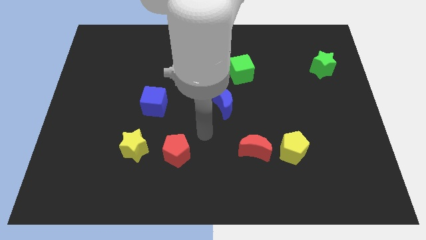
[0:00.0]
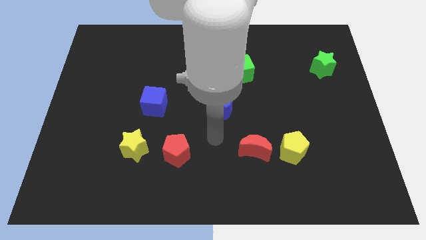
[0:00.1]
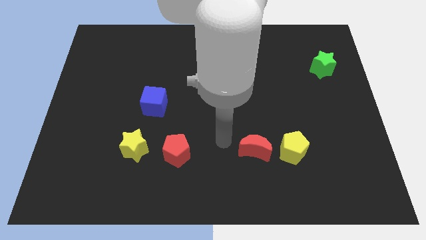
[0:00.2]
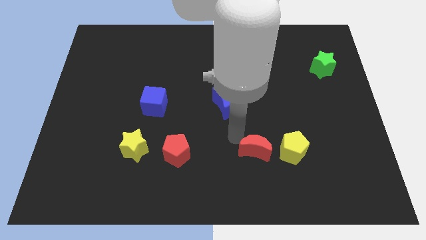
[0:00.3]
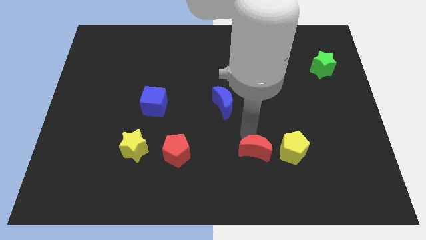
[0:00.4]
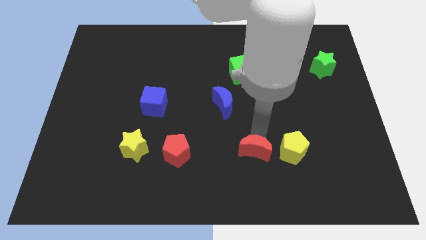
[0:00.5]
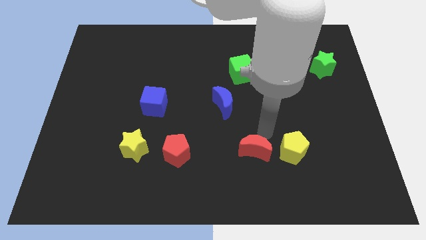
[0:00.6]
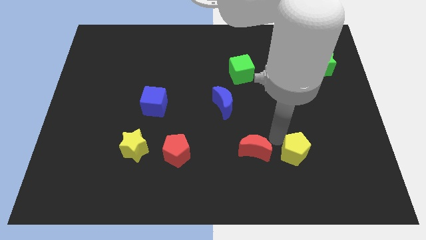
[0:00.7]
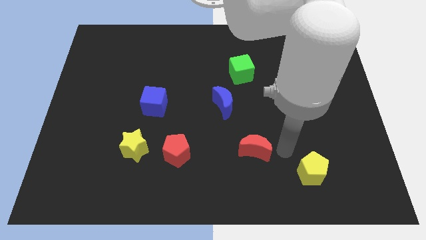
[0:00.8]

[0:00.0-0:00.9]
separate the red moon from the yellow pentagon

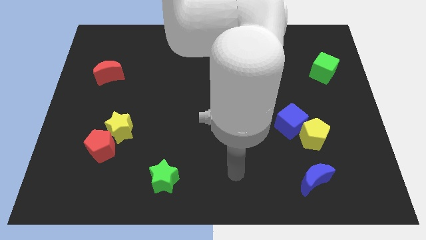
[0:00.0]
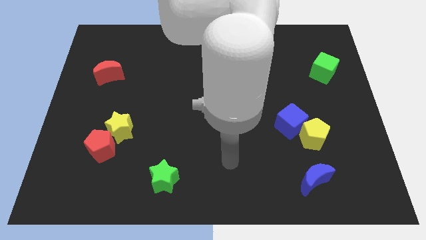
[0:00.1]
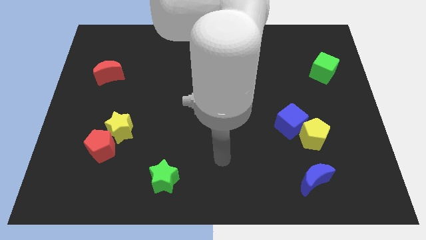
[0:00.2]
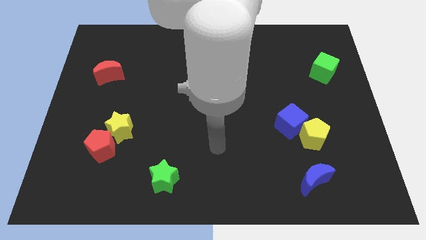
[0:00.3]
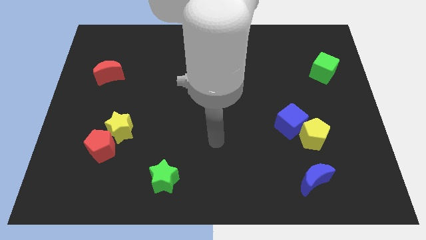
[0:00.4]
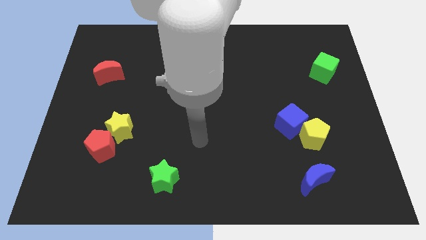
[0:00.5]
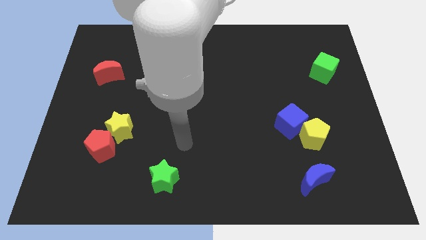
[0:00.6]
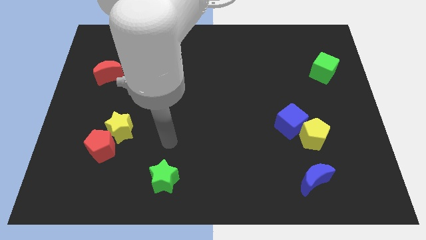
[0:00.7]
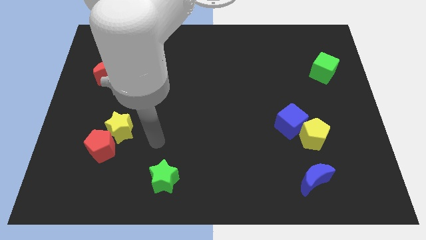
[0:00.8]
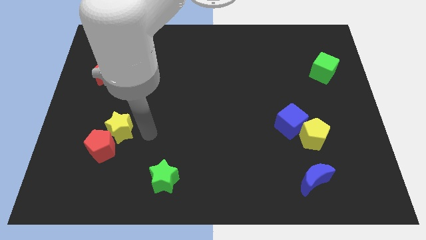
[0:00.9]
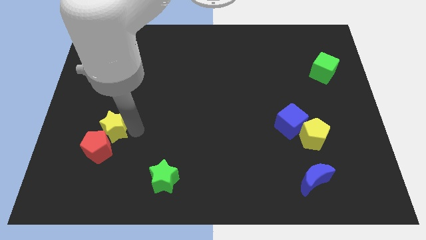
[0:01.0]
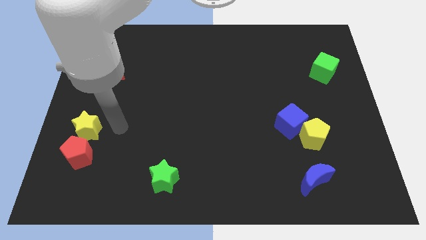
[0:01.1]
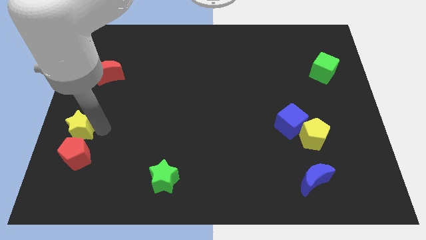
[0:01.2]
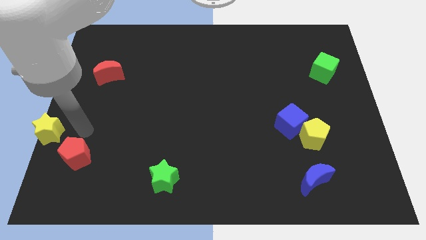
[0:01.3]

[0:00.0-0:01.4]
pull the red pentagon apart from the yellow star

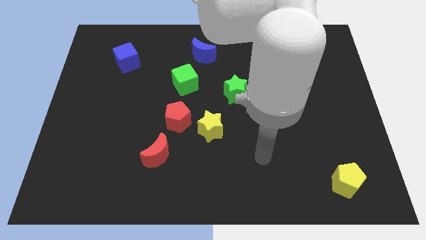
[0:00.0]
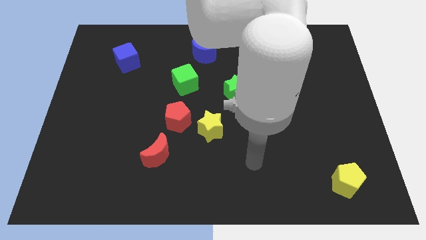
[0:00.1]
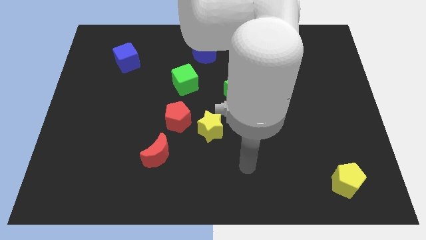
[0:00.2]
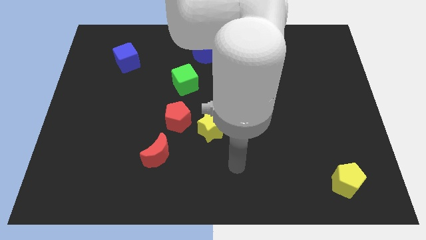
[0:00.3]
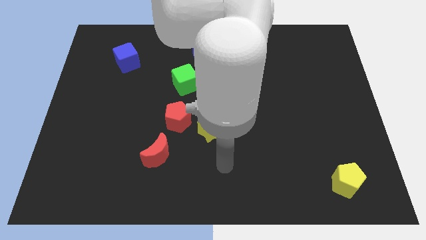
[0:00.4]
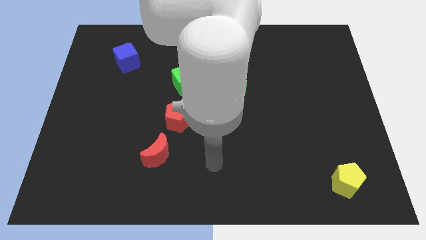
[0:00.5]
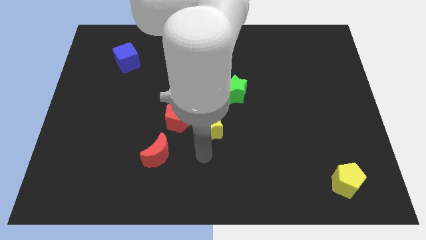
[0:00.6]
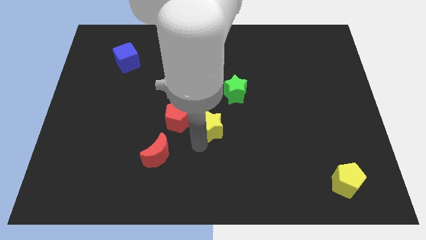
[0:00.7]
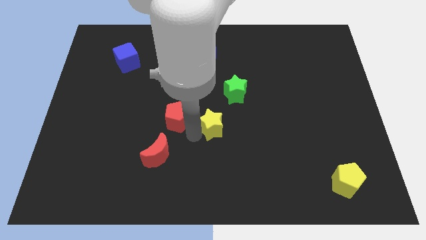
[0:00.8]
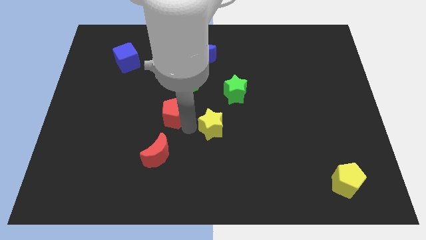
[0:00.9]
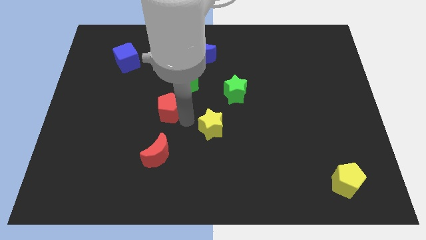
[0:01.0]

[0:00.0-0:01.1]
pull the yellow star apart from the red pentagon

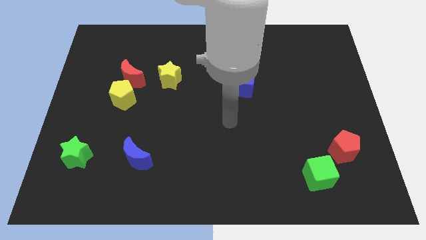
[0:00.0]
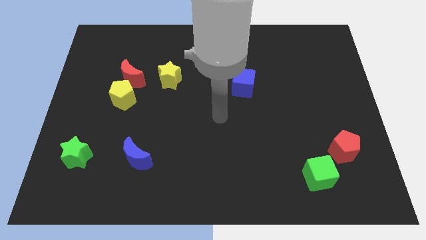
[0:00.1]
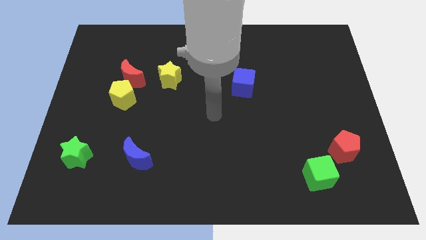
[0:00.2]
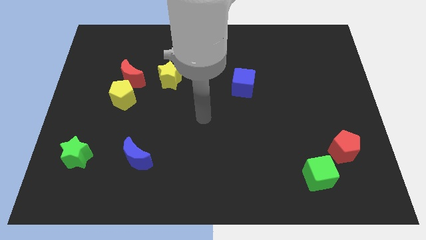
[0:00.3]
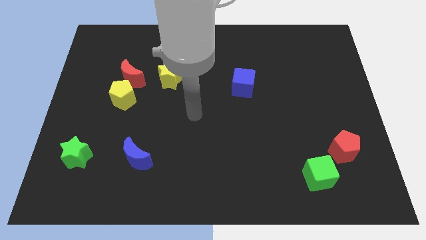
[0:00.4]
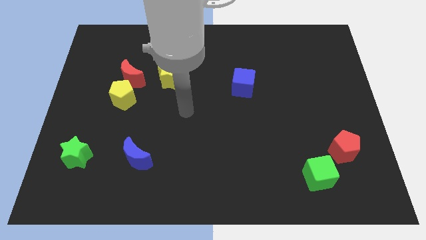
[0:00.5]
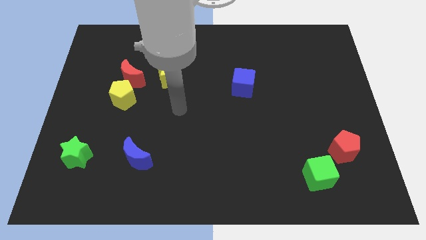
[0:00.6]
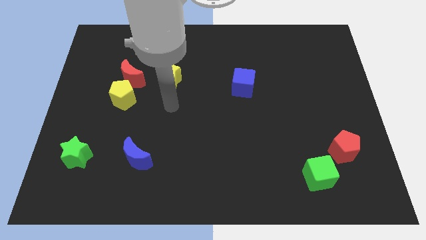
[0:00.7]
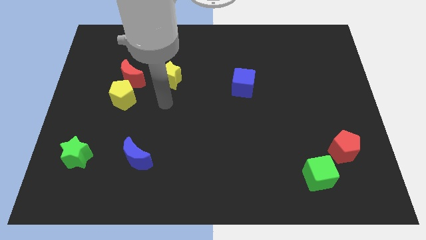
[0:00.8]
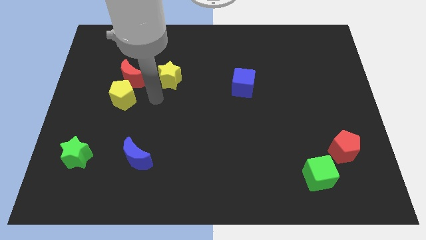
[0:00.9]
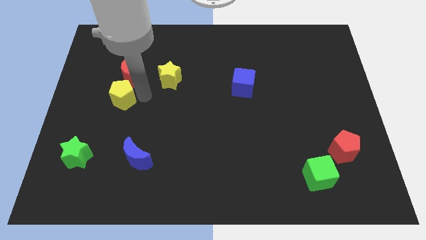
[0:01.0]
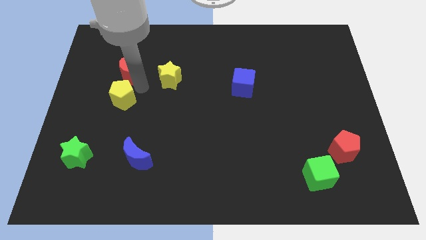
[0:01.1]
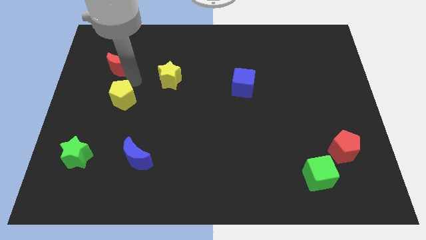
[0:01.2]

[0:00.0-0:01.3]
pull the yellow pentagon apart from the red moon

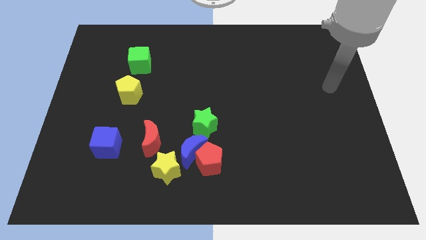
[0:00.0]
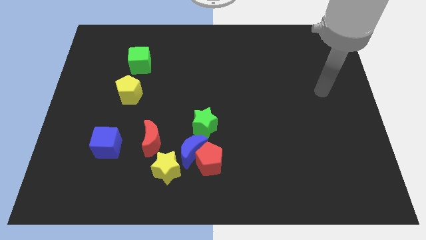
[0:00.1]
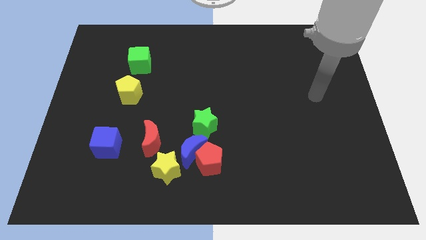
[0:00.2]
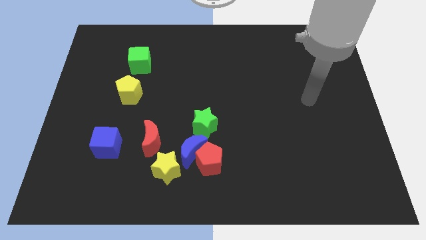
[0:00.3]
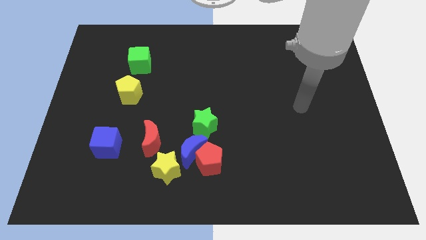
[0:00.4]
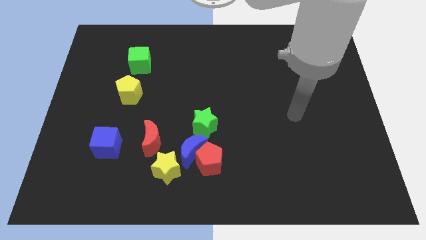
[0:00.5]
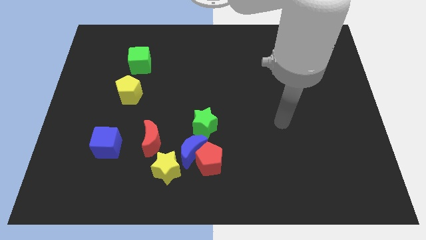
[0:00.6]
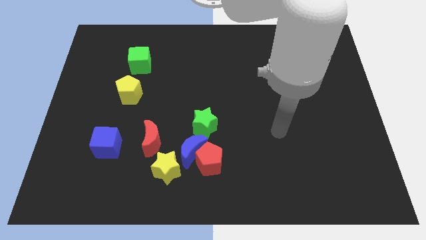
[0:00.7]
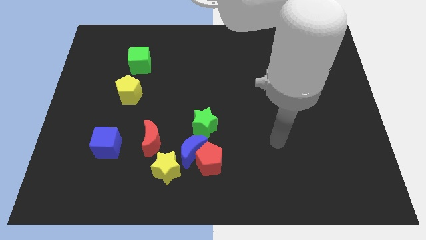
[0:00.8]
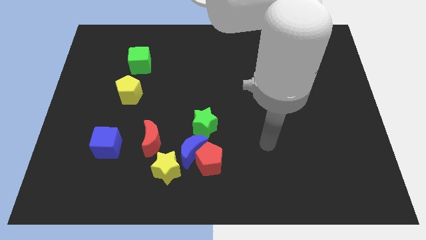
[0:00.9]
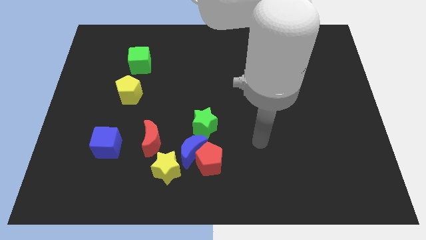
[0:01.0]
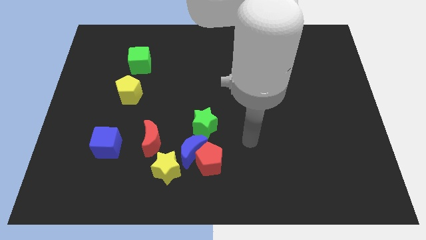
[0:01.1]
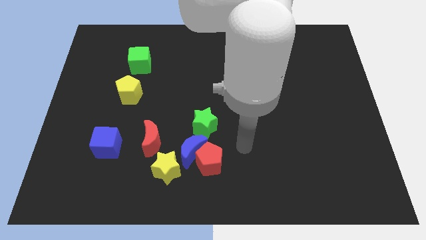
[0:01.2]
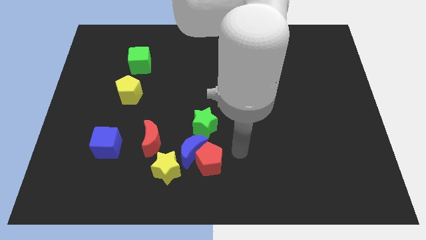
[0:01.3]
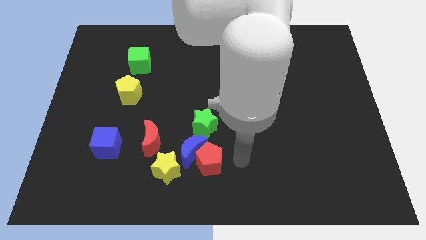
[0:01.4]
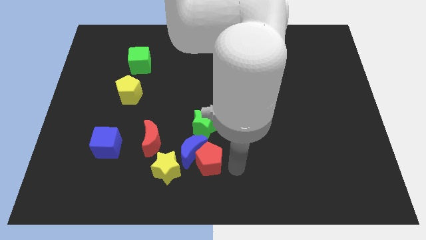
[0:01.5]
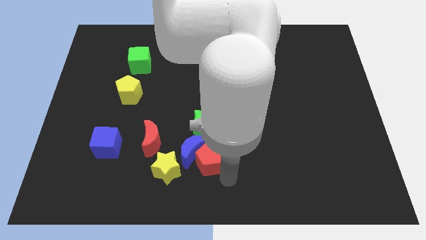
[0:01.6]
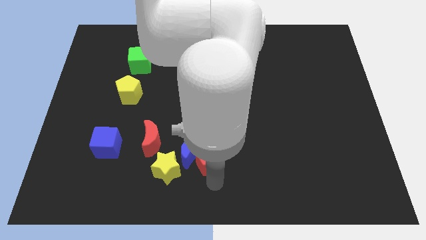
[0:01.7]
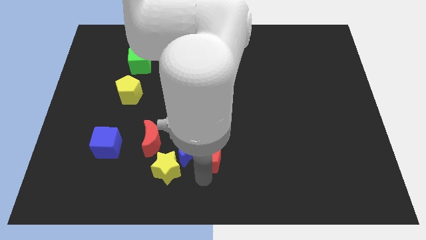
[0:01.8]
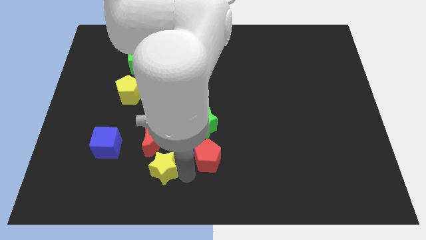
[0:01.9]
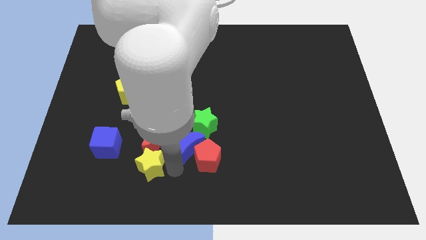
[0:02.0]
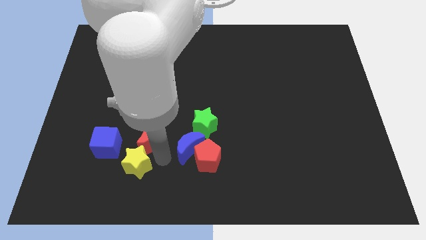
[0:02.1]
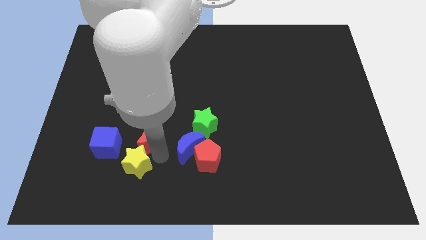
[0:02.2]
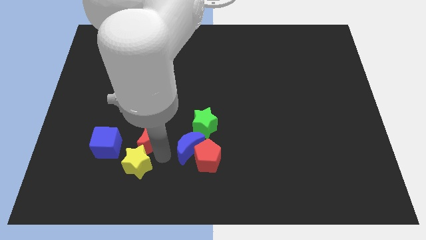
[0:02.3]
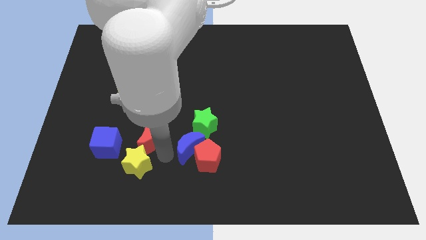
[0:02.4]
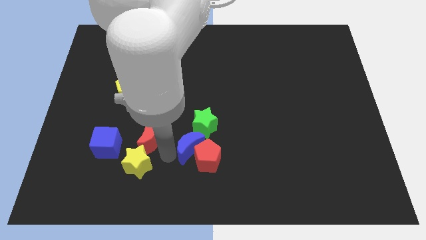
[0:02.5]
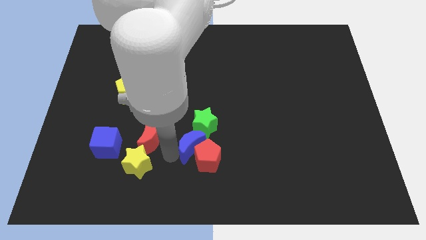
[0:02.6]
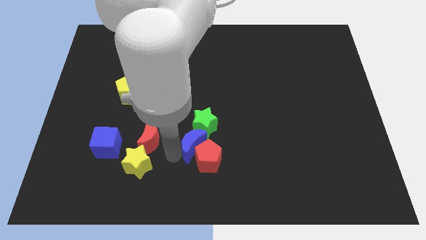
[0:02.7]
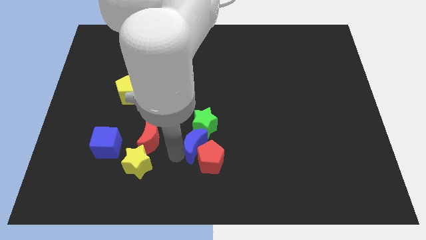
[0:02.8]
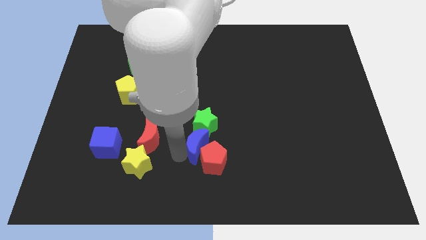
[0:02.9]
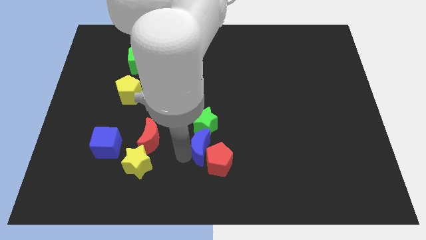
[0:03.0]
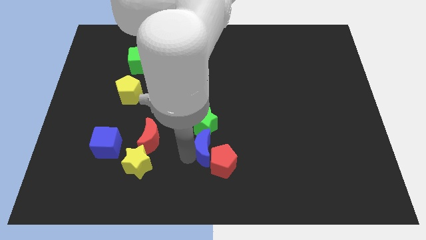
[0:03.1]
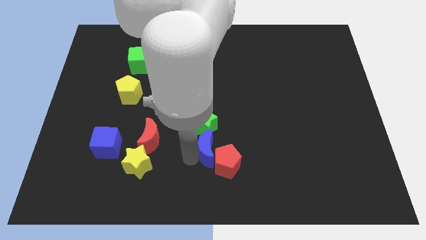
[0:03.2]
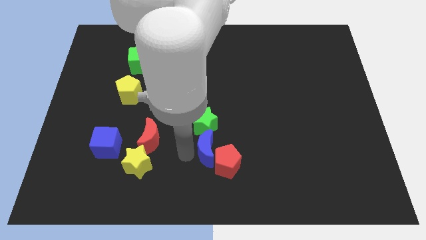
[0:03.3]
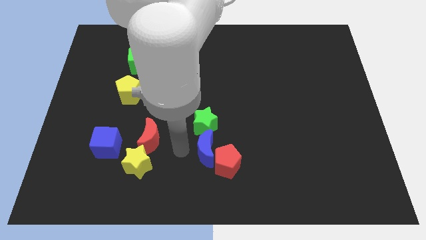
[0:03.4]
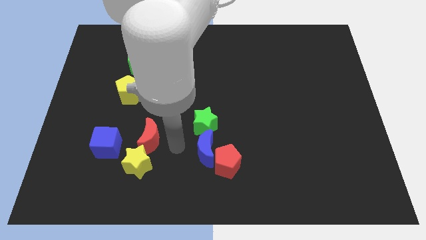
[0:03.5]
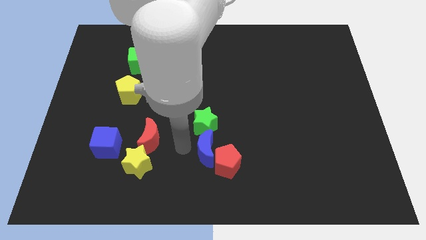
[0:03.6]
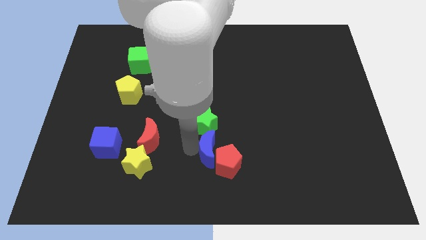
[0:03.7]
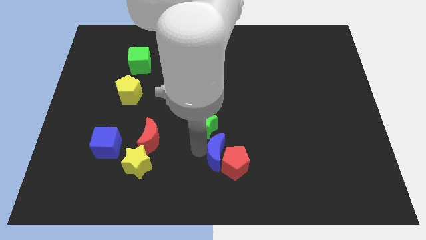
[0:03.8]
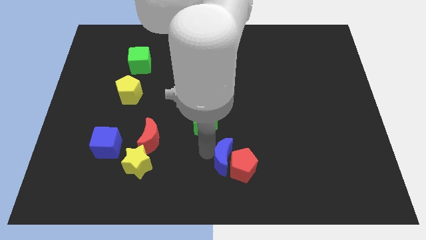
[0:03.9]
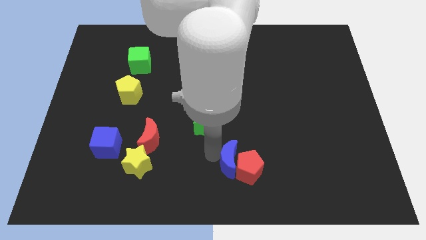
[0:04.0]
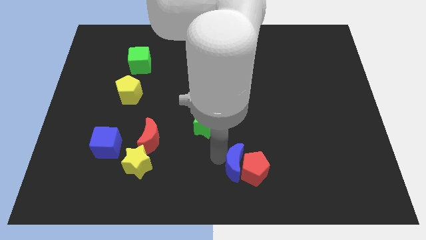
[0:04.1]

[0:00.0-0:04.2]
pull the blue moon apart from the group

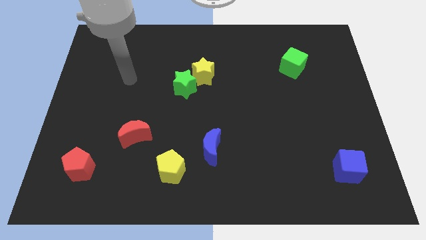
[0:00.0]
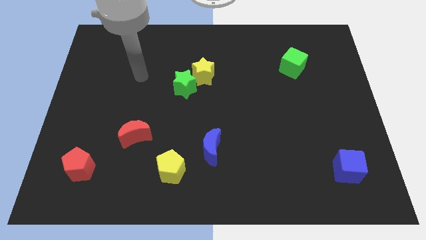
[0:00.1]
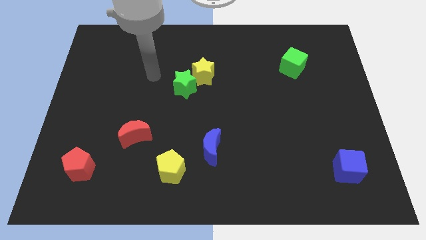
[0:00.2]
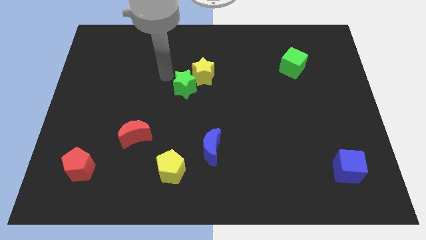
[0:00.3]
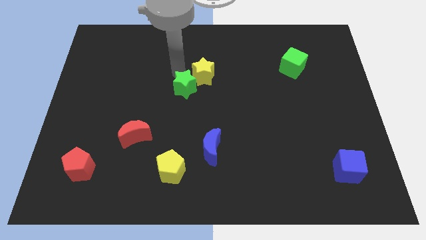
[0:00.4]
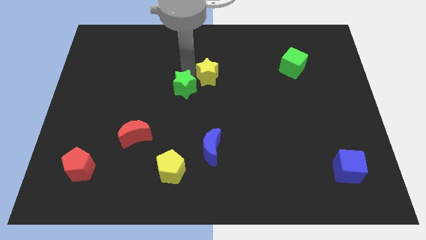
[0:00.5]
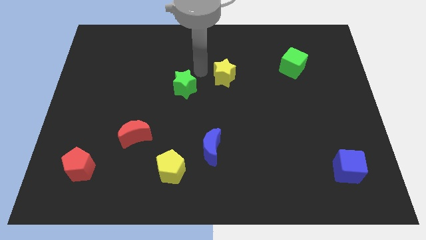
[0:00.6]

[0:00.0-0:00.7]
move the green star away from the yellow star
